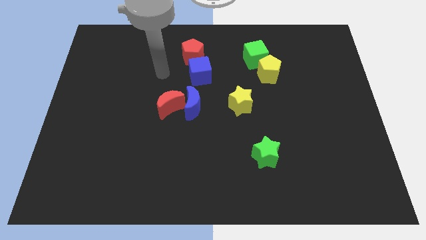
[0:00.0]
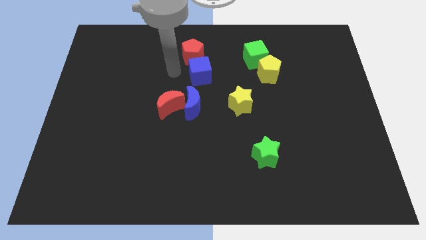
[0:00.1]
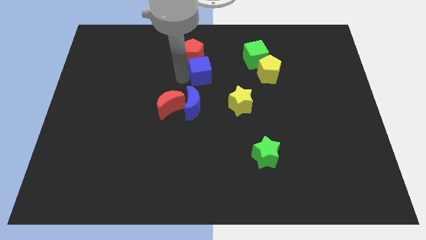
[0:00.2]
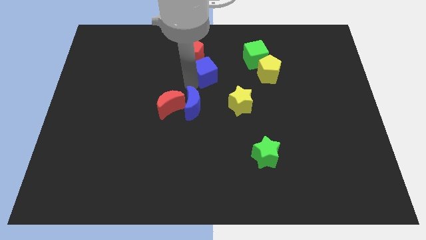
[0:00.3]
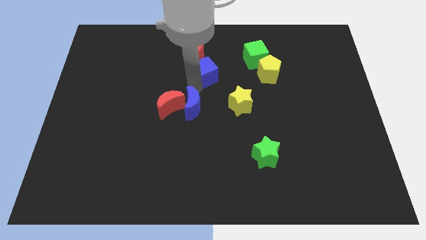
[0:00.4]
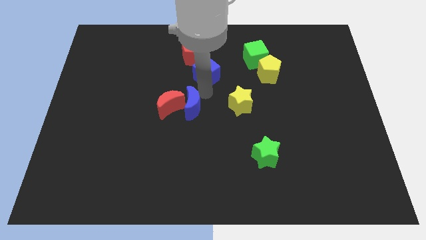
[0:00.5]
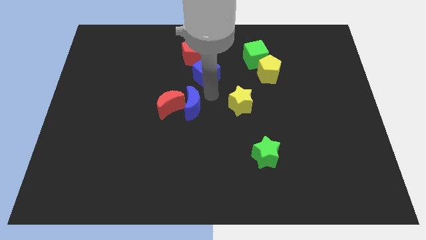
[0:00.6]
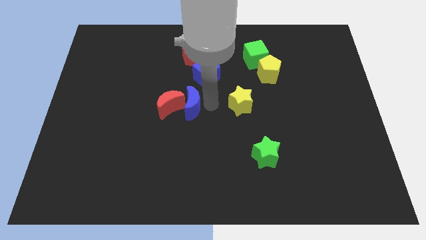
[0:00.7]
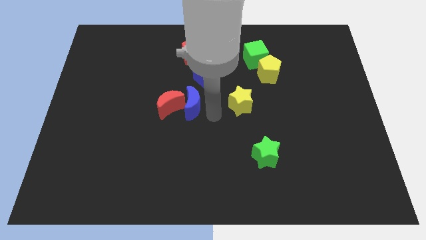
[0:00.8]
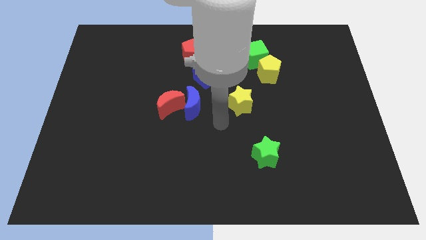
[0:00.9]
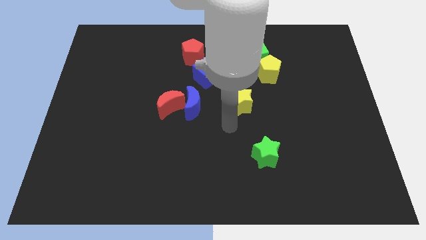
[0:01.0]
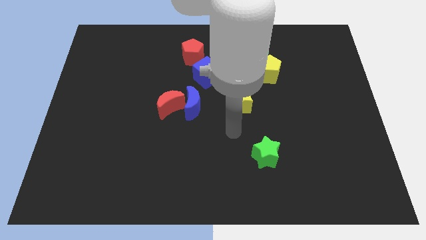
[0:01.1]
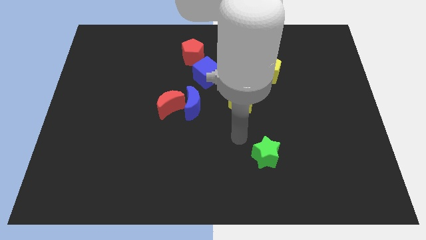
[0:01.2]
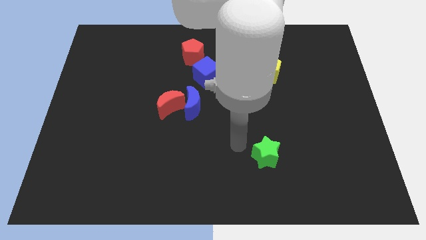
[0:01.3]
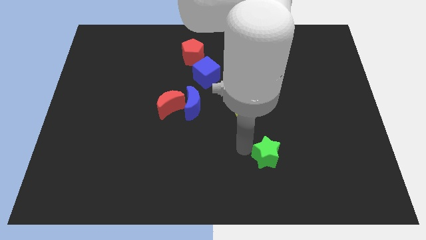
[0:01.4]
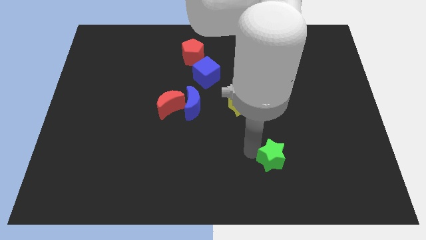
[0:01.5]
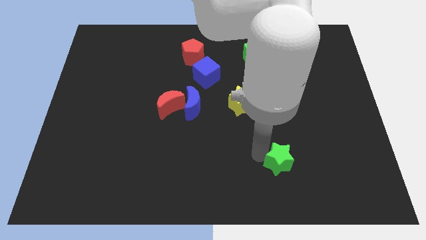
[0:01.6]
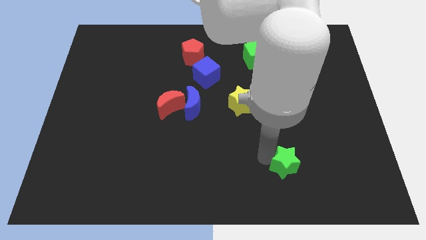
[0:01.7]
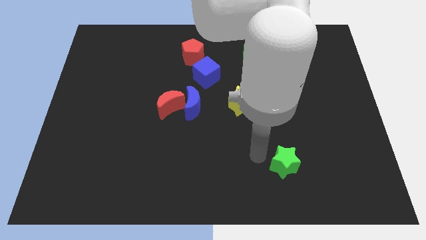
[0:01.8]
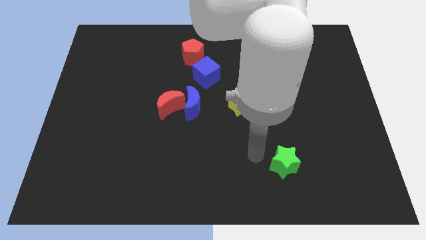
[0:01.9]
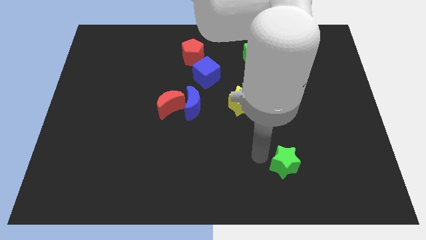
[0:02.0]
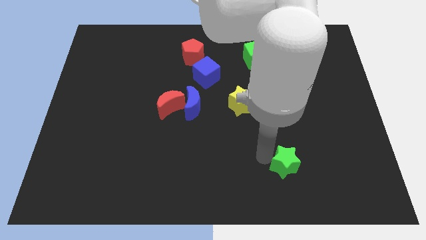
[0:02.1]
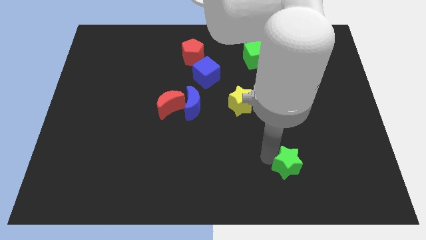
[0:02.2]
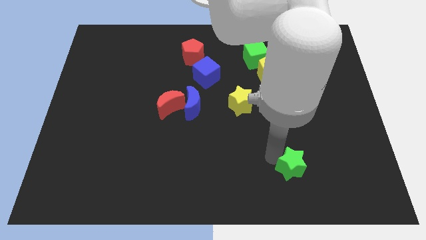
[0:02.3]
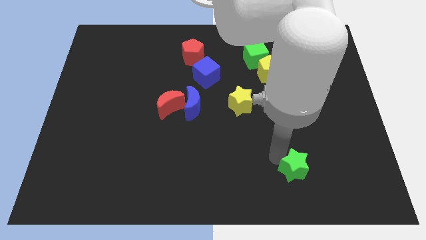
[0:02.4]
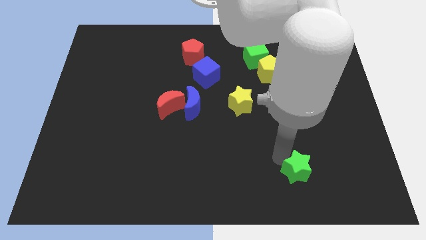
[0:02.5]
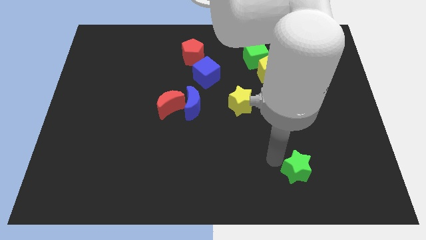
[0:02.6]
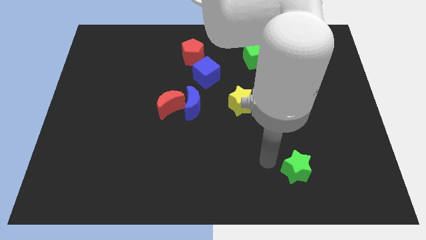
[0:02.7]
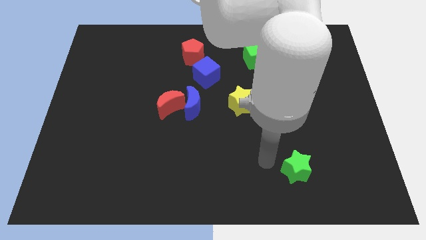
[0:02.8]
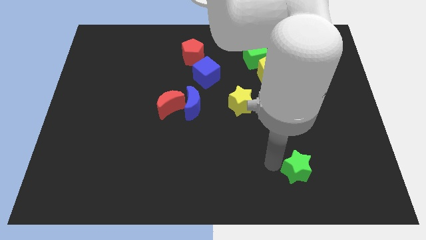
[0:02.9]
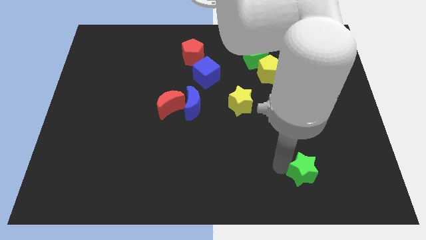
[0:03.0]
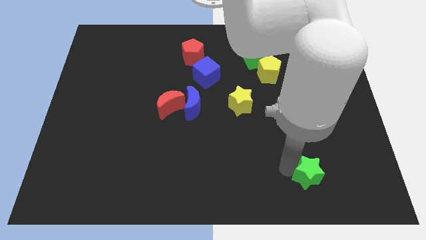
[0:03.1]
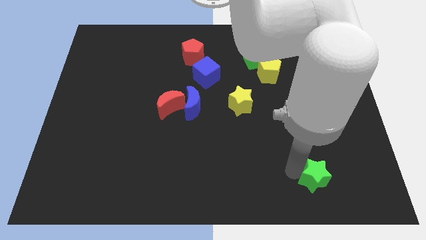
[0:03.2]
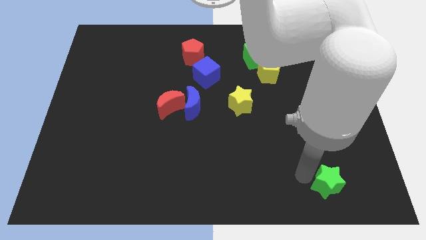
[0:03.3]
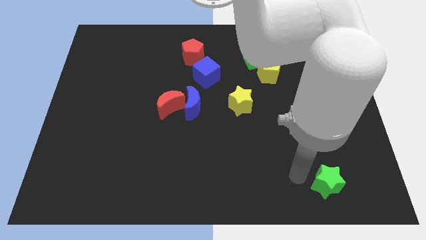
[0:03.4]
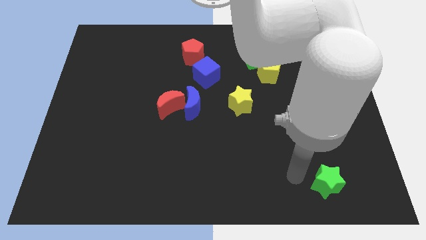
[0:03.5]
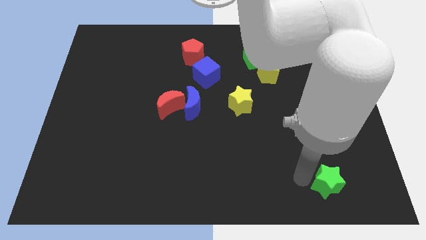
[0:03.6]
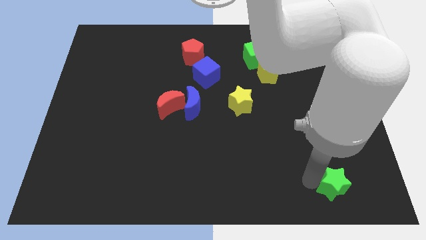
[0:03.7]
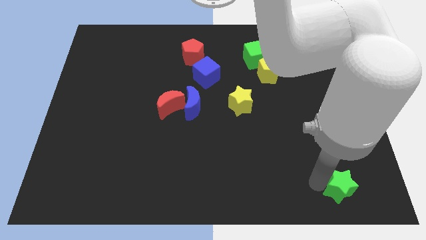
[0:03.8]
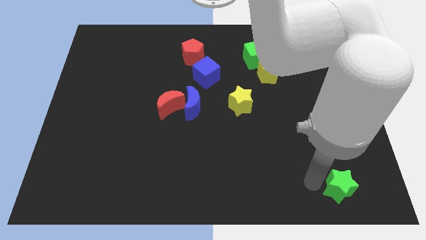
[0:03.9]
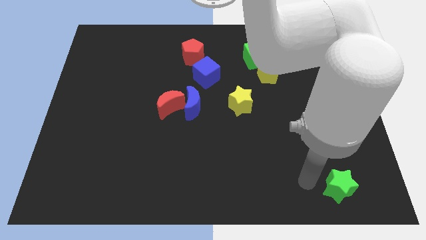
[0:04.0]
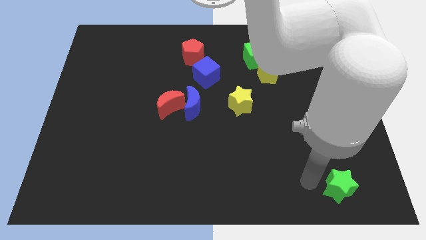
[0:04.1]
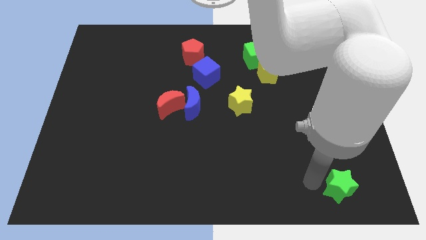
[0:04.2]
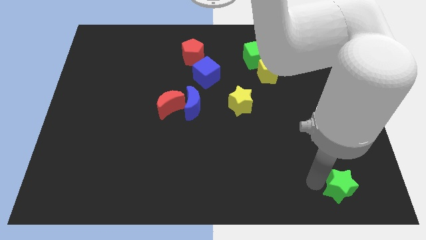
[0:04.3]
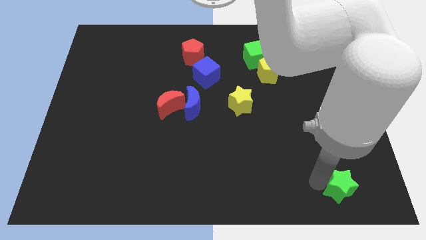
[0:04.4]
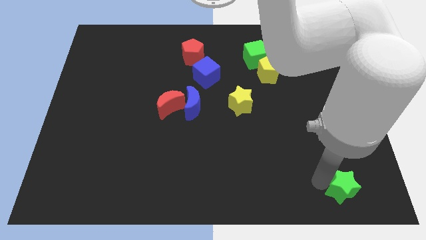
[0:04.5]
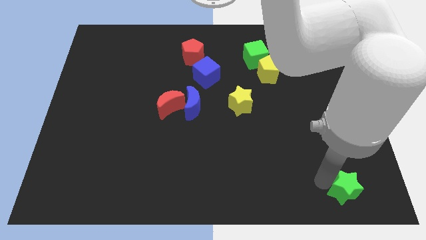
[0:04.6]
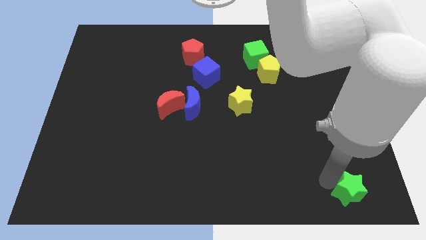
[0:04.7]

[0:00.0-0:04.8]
slide the green star to the bottom right corner

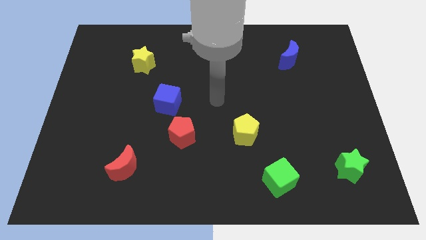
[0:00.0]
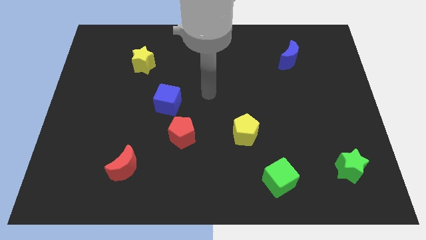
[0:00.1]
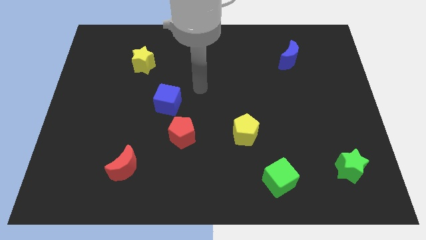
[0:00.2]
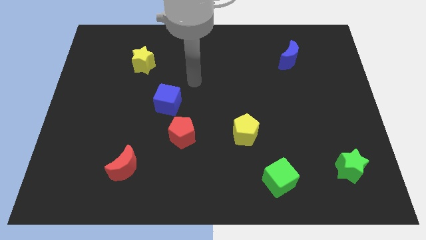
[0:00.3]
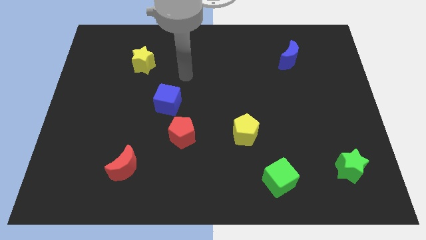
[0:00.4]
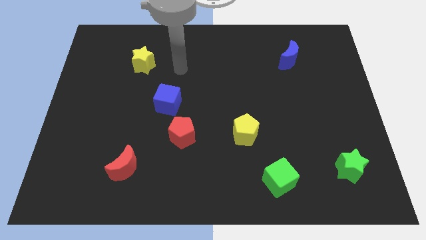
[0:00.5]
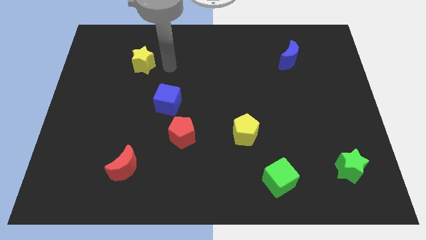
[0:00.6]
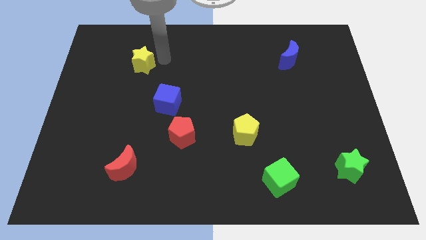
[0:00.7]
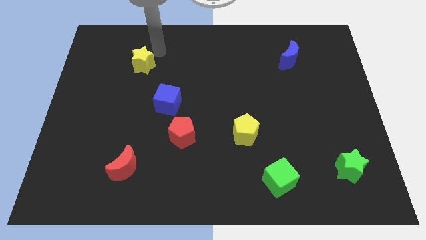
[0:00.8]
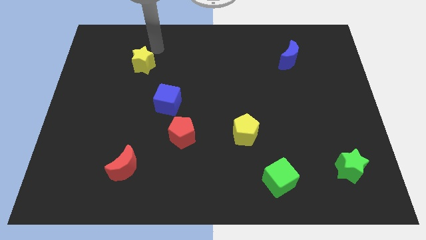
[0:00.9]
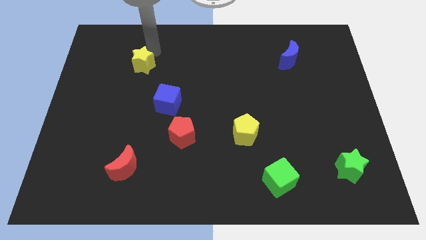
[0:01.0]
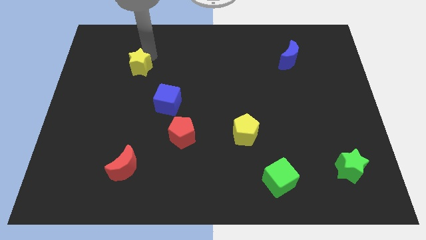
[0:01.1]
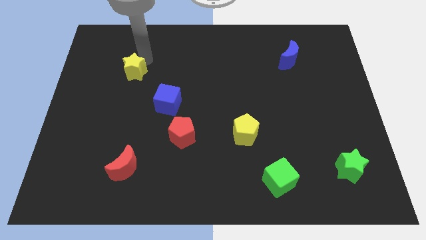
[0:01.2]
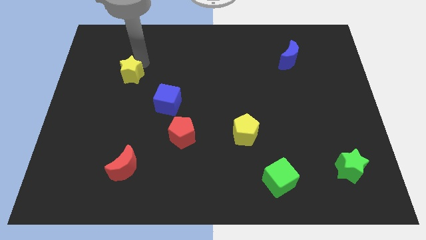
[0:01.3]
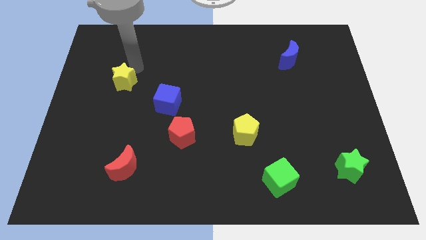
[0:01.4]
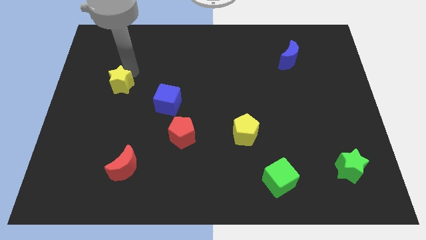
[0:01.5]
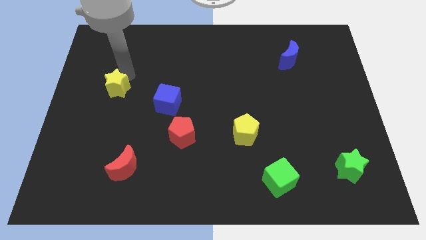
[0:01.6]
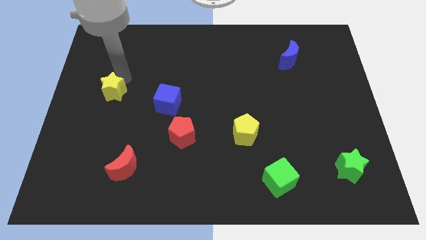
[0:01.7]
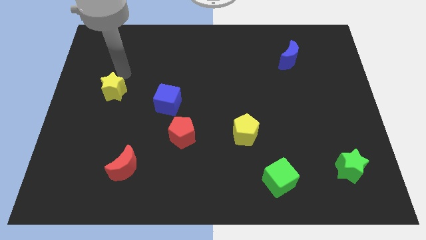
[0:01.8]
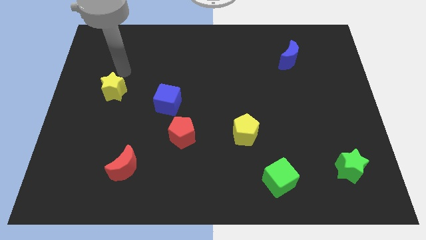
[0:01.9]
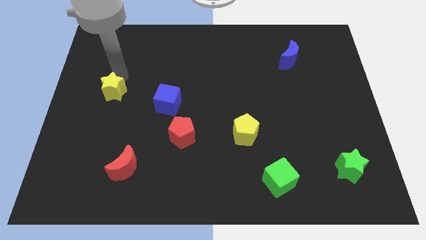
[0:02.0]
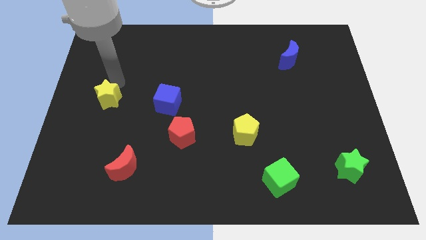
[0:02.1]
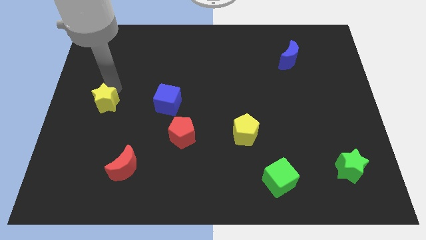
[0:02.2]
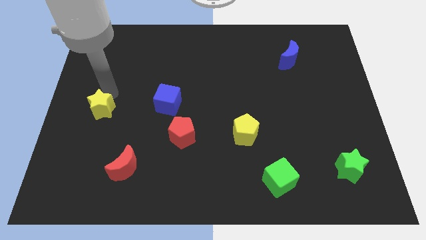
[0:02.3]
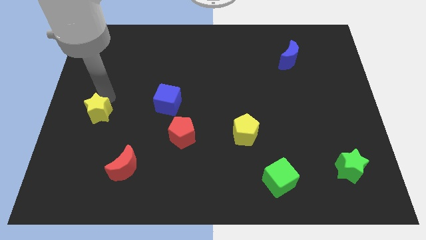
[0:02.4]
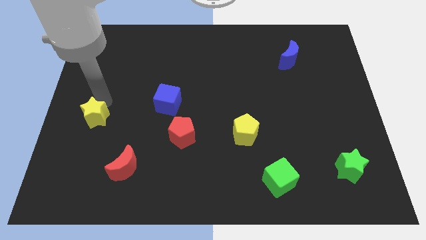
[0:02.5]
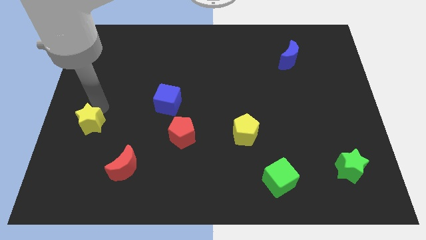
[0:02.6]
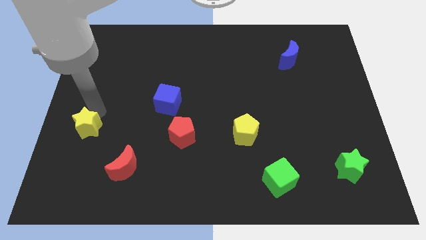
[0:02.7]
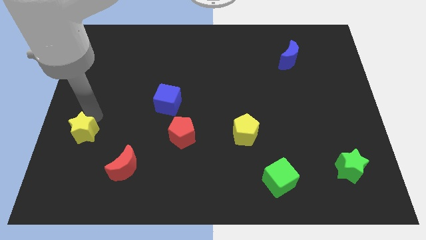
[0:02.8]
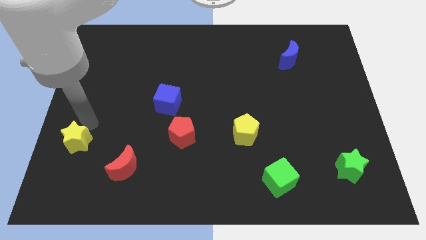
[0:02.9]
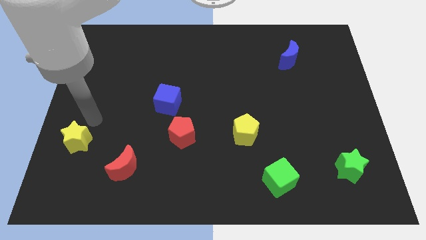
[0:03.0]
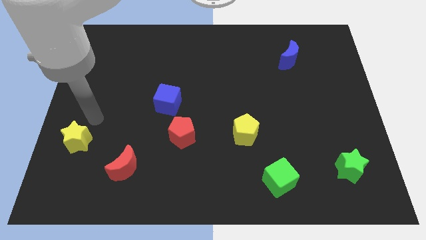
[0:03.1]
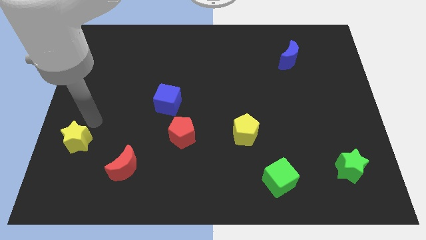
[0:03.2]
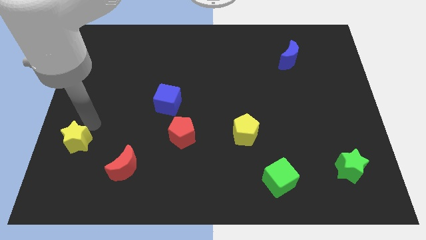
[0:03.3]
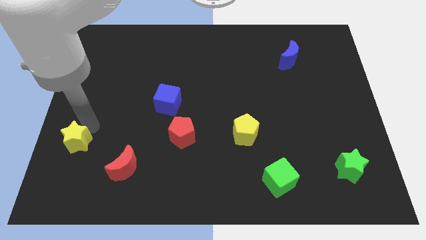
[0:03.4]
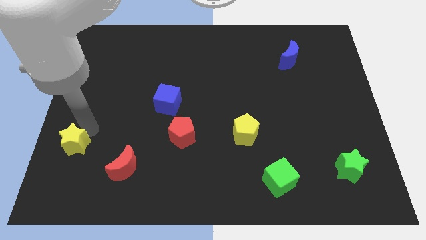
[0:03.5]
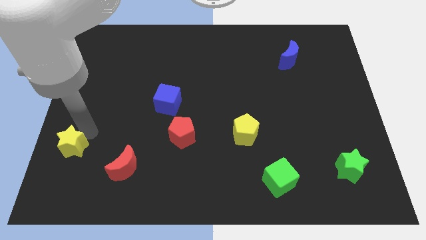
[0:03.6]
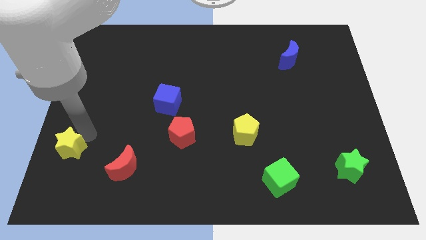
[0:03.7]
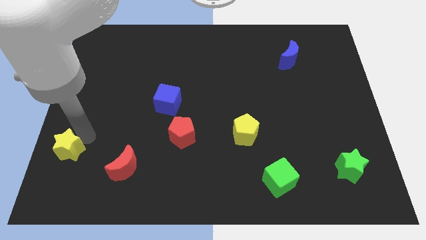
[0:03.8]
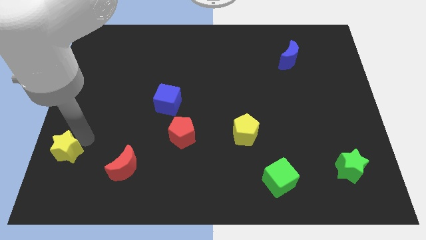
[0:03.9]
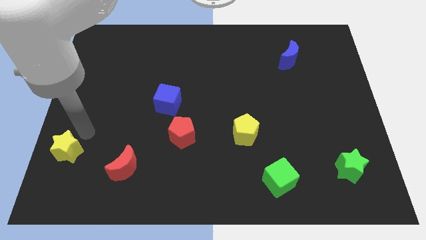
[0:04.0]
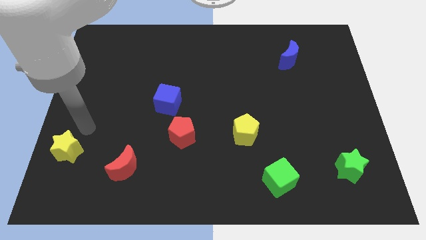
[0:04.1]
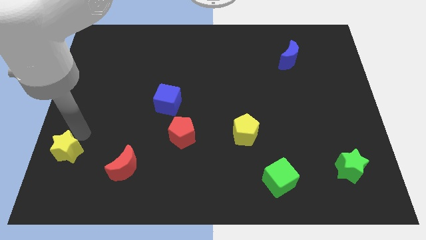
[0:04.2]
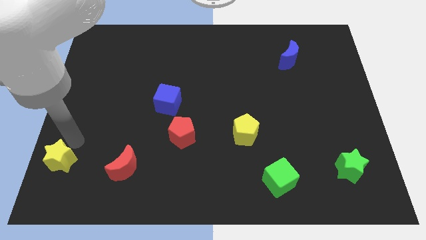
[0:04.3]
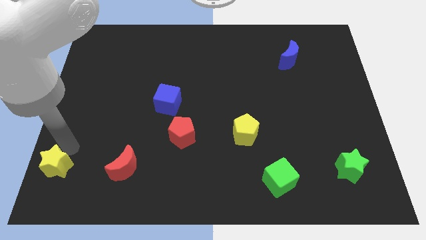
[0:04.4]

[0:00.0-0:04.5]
move the yellow star to the bottom left
